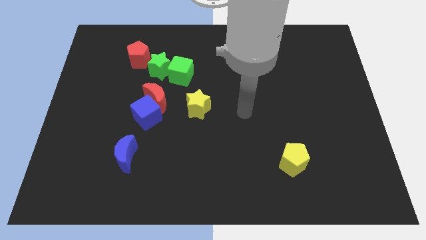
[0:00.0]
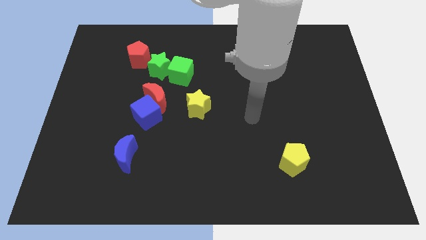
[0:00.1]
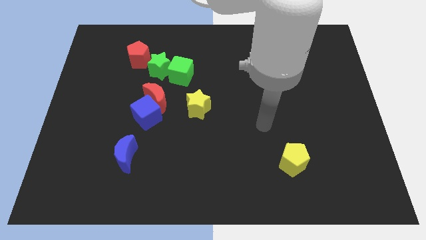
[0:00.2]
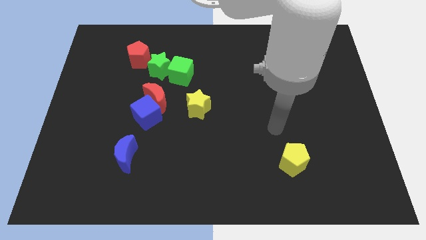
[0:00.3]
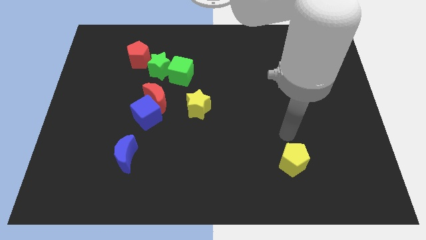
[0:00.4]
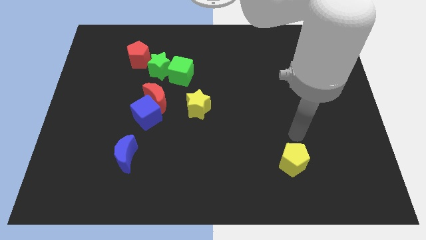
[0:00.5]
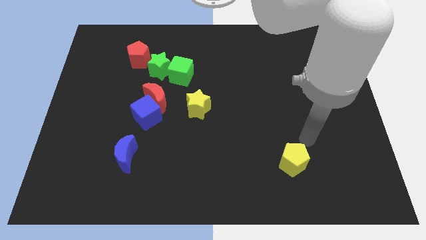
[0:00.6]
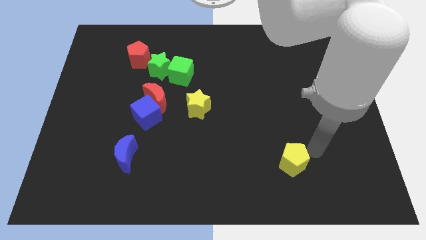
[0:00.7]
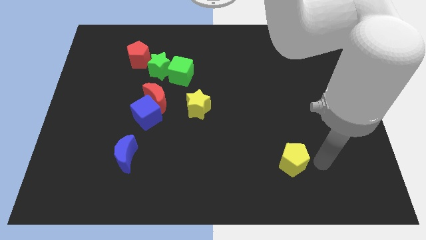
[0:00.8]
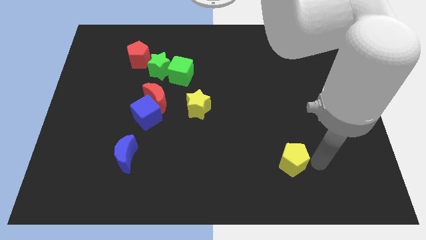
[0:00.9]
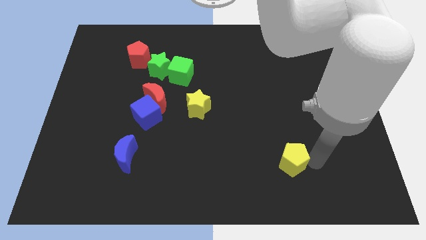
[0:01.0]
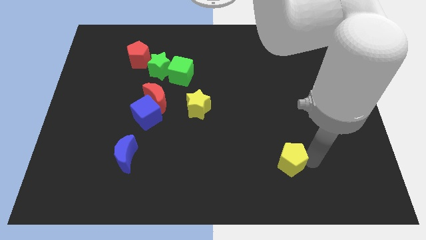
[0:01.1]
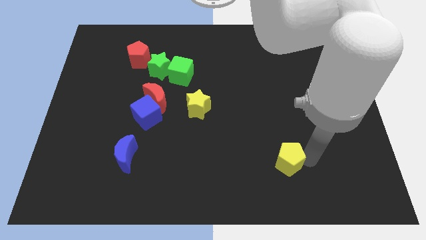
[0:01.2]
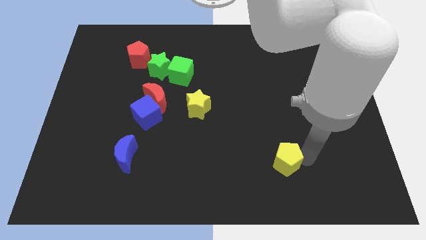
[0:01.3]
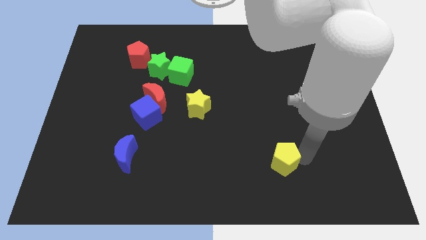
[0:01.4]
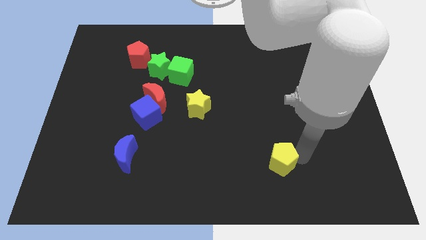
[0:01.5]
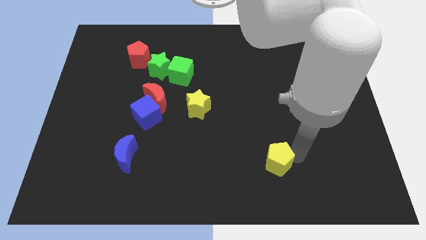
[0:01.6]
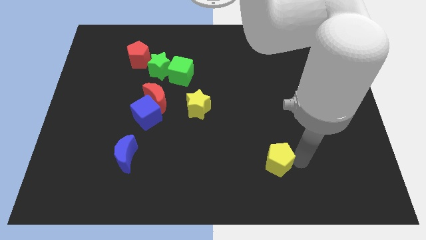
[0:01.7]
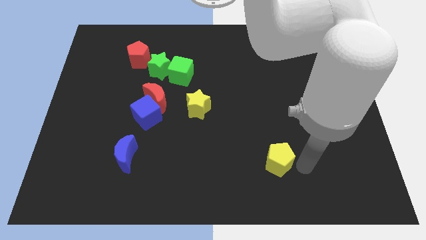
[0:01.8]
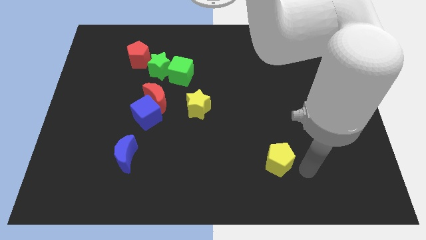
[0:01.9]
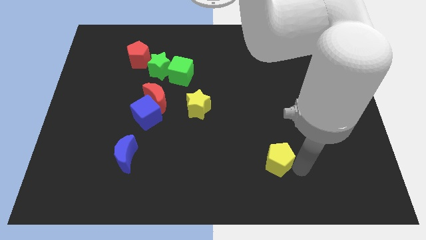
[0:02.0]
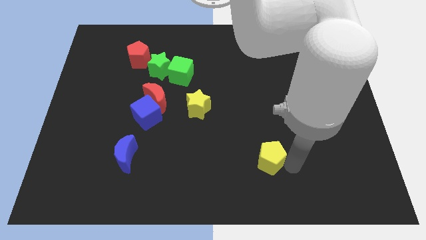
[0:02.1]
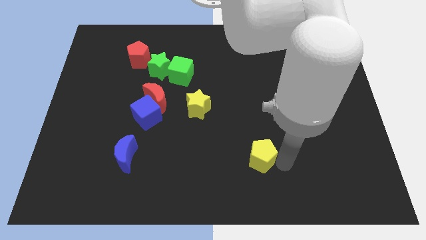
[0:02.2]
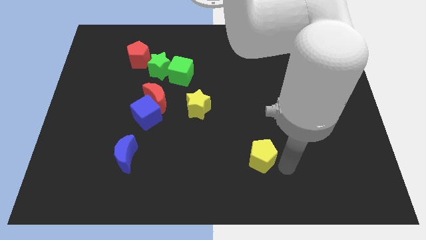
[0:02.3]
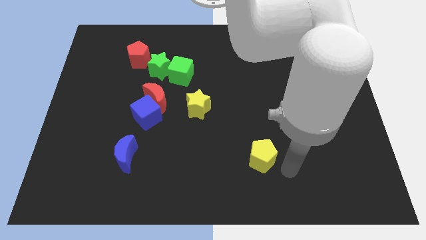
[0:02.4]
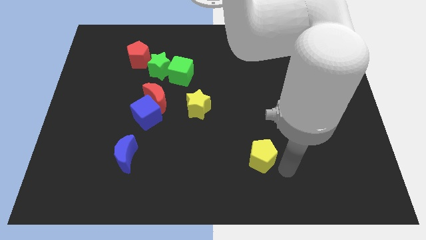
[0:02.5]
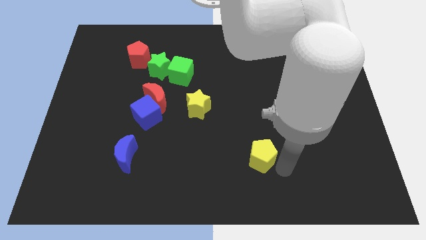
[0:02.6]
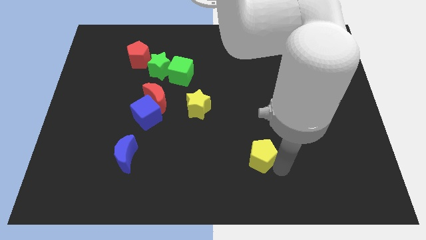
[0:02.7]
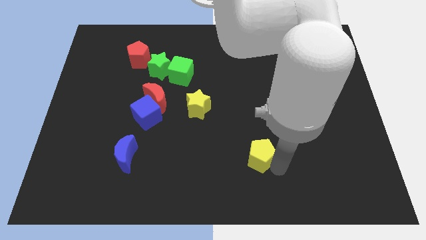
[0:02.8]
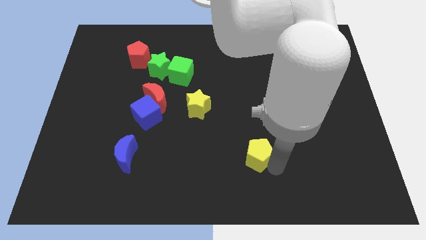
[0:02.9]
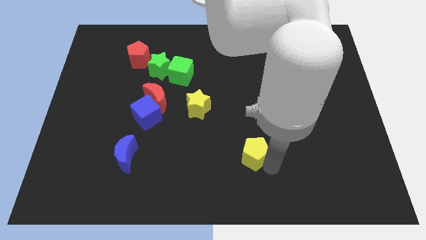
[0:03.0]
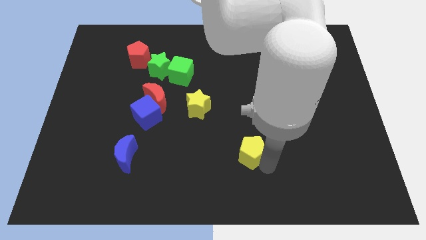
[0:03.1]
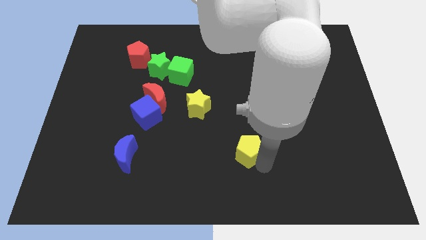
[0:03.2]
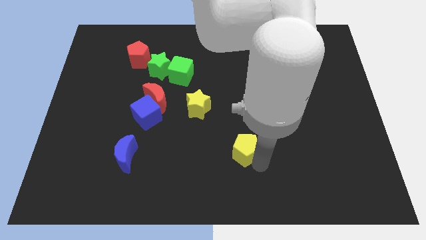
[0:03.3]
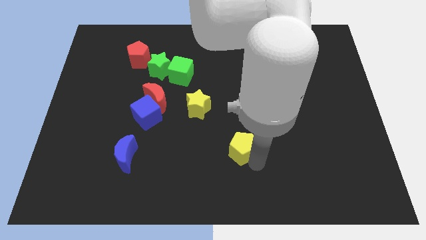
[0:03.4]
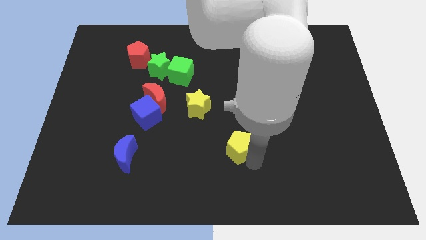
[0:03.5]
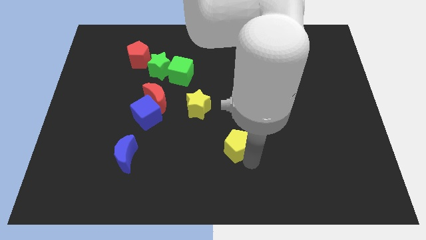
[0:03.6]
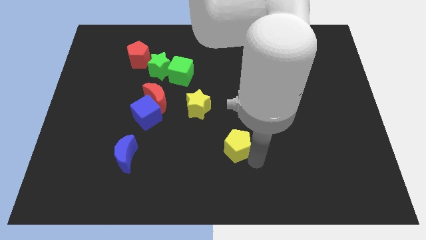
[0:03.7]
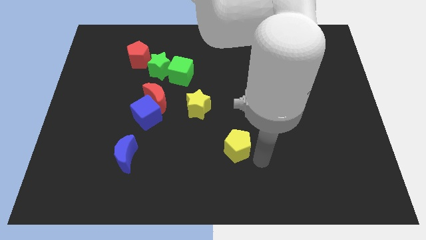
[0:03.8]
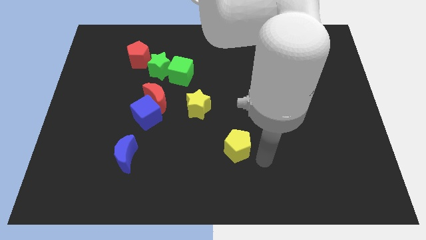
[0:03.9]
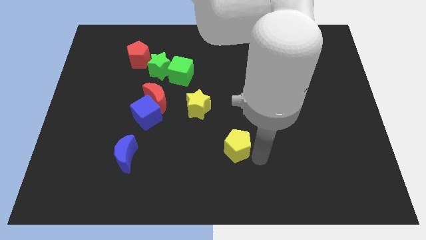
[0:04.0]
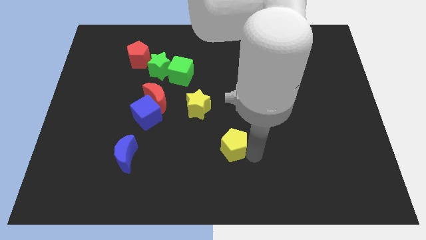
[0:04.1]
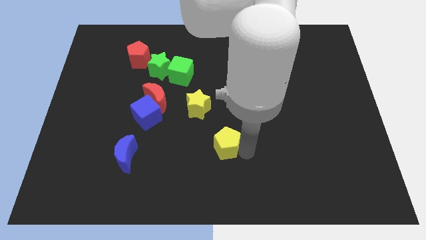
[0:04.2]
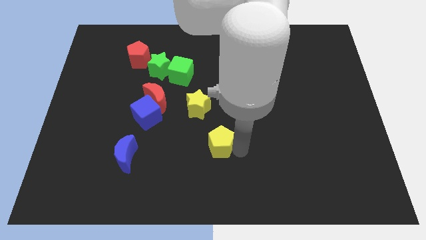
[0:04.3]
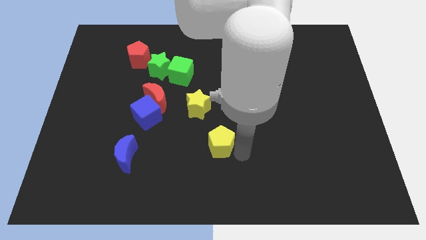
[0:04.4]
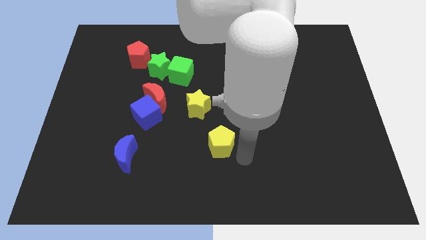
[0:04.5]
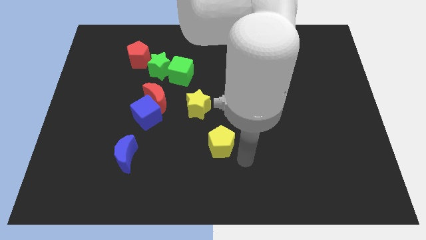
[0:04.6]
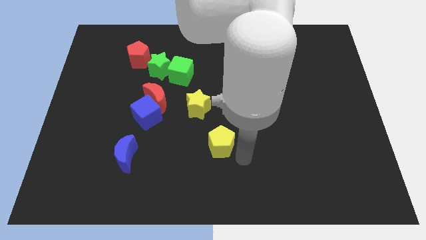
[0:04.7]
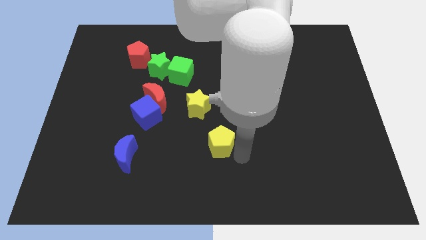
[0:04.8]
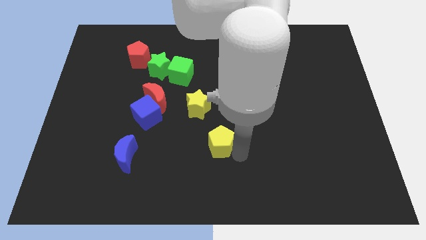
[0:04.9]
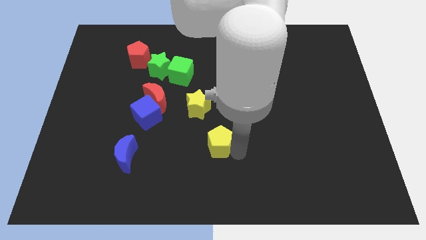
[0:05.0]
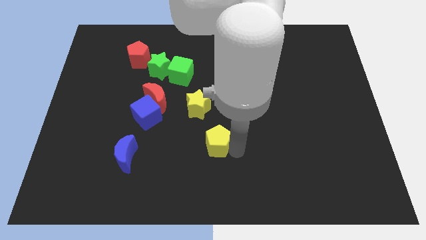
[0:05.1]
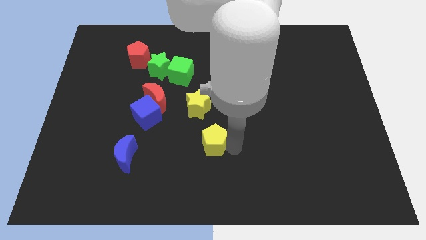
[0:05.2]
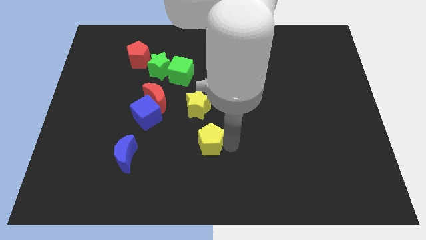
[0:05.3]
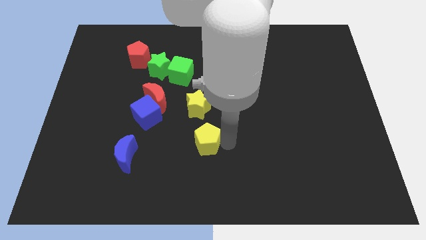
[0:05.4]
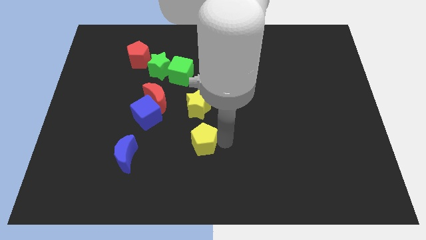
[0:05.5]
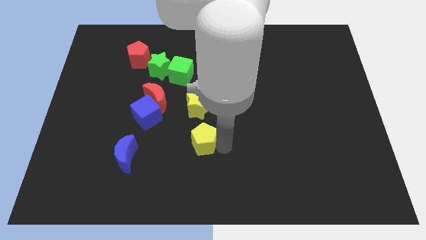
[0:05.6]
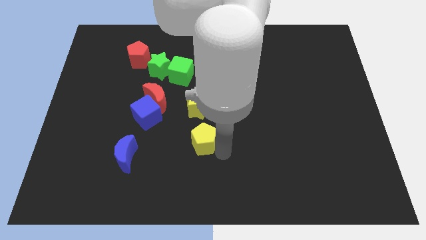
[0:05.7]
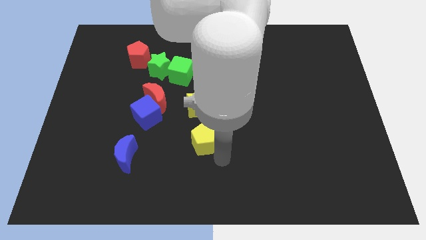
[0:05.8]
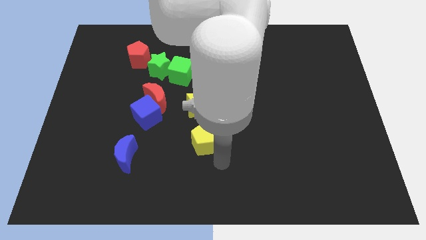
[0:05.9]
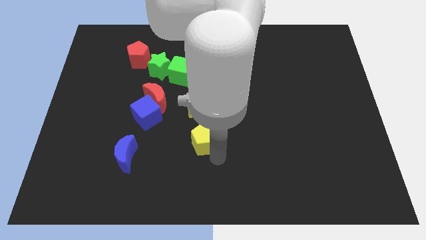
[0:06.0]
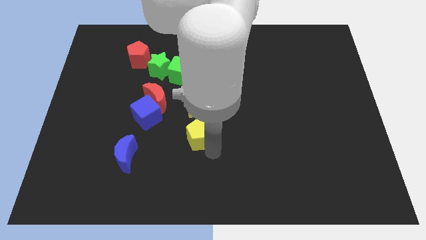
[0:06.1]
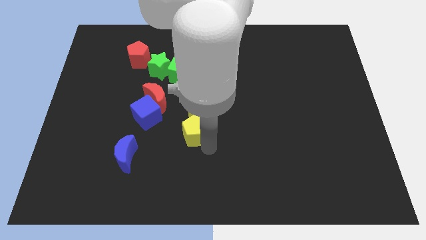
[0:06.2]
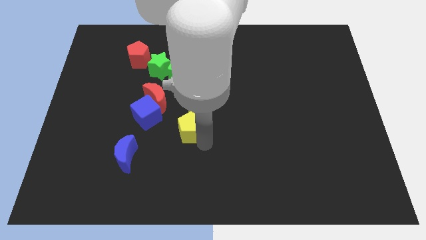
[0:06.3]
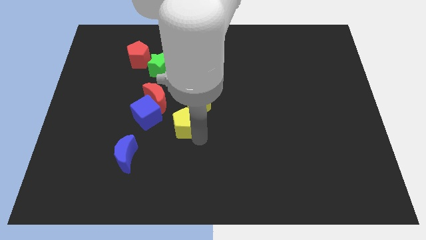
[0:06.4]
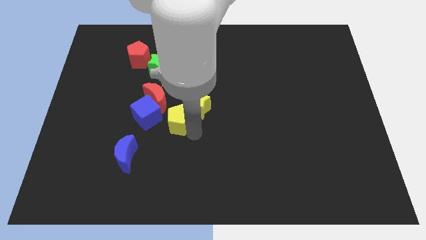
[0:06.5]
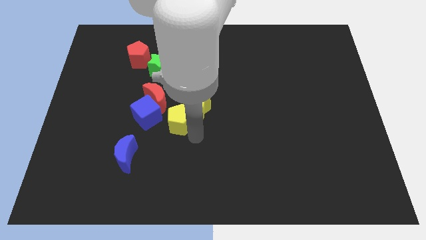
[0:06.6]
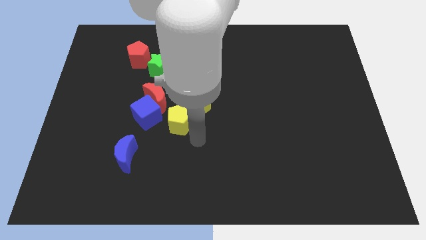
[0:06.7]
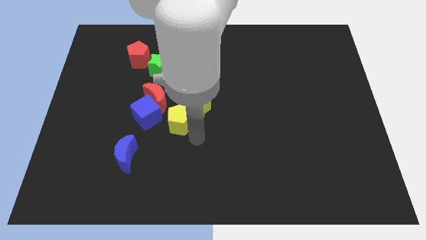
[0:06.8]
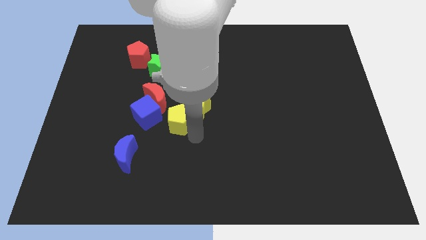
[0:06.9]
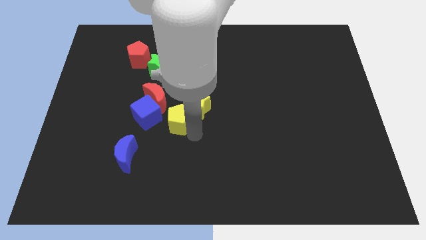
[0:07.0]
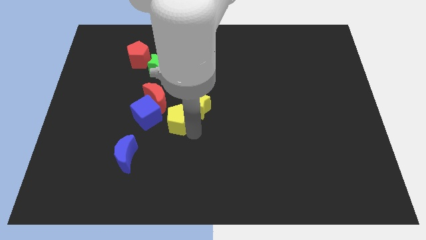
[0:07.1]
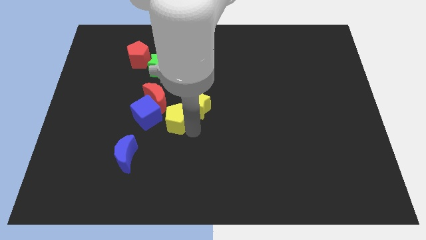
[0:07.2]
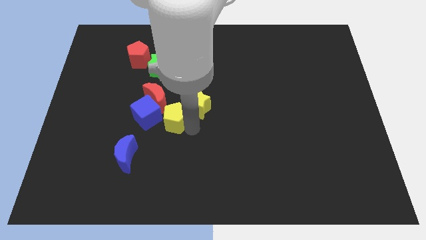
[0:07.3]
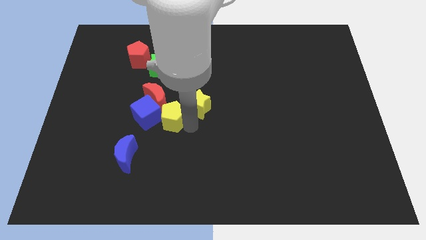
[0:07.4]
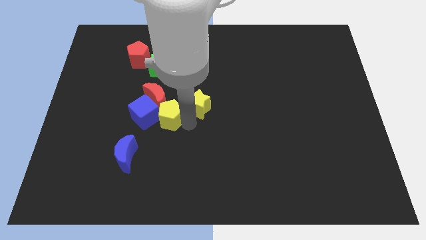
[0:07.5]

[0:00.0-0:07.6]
put the yellow pentagon next to the red moon

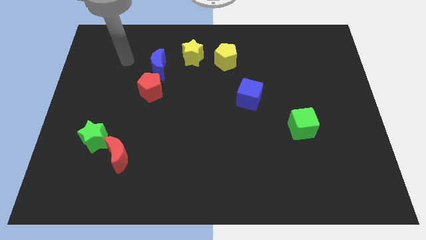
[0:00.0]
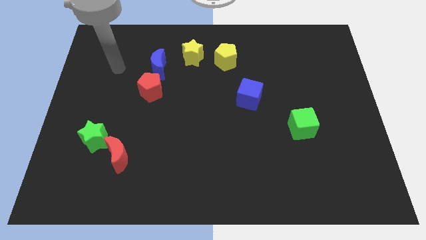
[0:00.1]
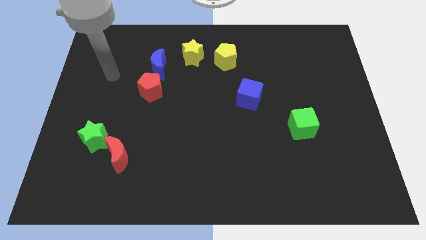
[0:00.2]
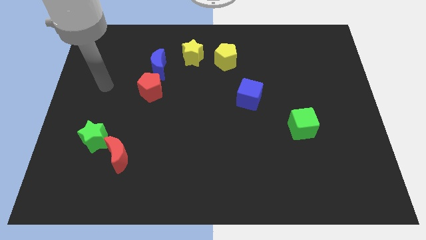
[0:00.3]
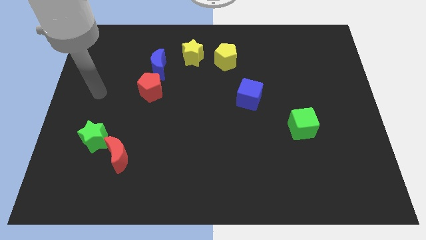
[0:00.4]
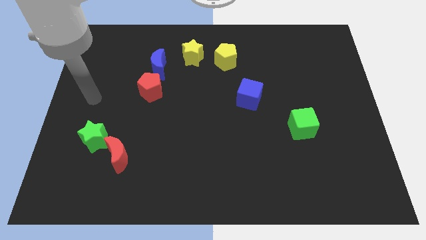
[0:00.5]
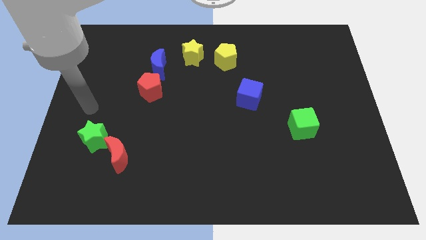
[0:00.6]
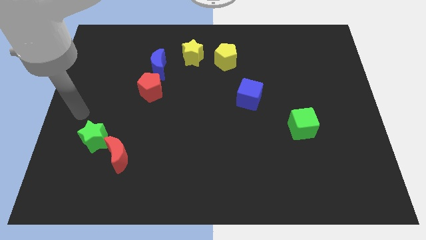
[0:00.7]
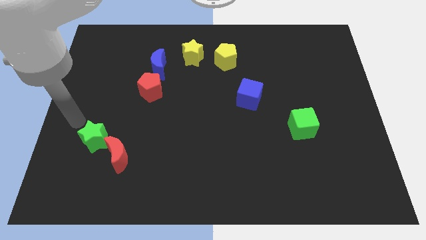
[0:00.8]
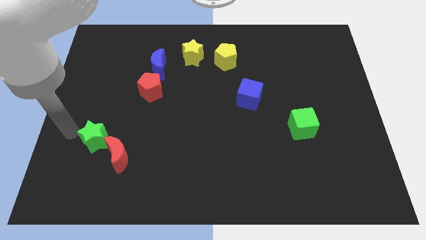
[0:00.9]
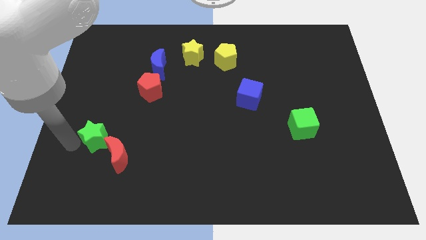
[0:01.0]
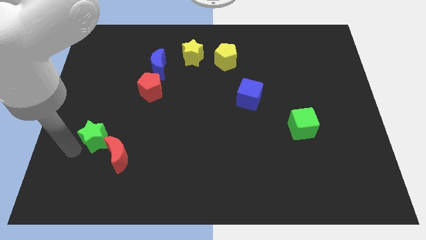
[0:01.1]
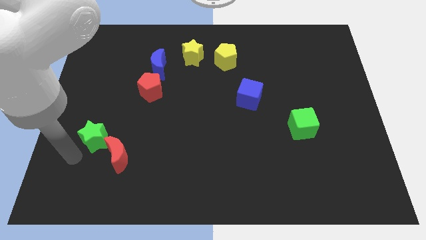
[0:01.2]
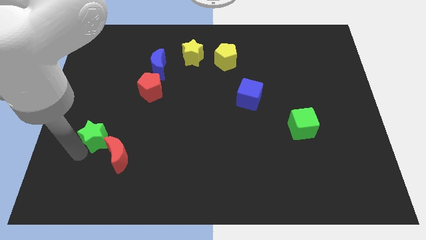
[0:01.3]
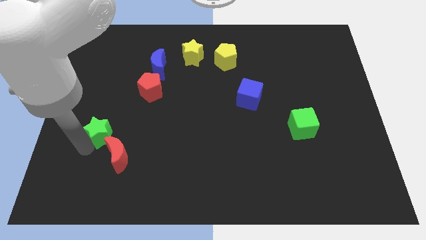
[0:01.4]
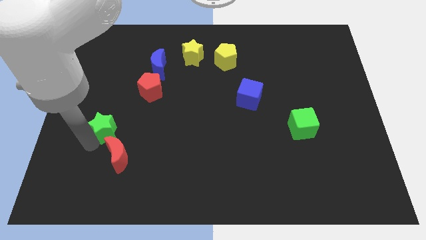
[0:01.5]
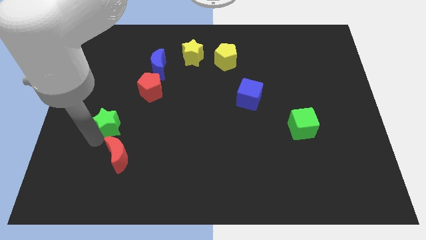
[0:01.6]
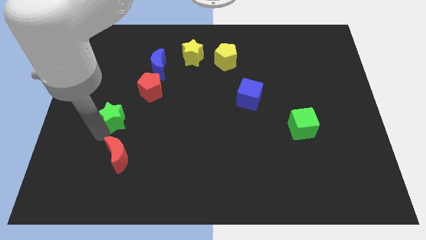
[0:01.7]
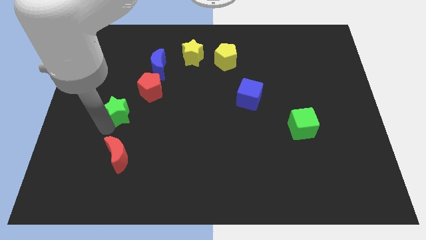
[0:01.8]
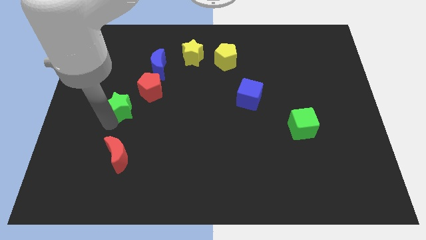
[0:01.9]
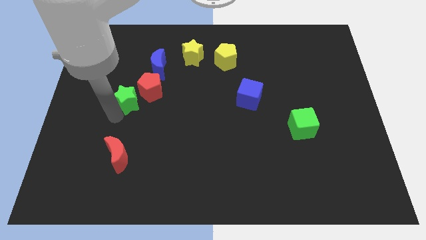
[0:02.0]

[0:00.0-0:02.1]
push the green star to the red pentagon
